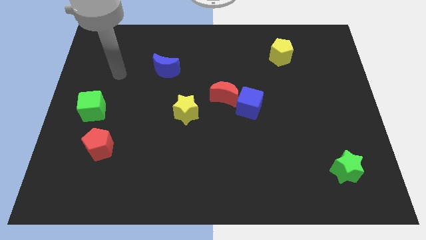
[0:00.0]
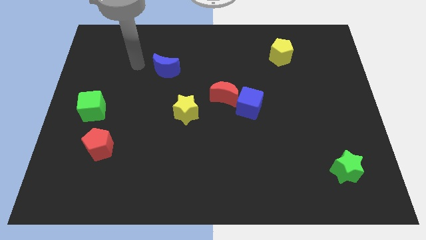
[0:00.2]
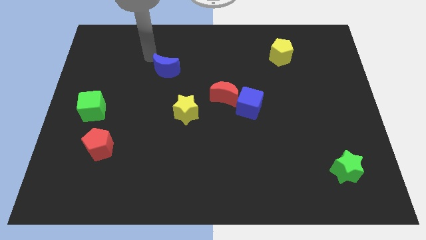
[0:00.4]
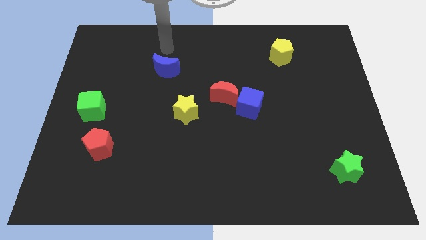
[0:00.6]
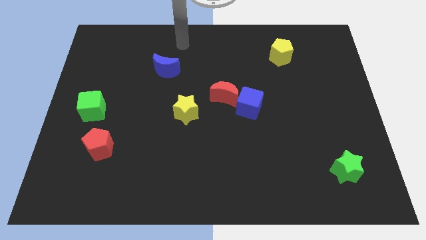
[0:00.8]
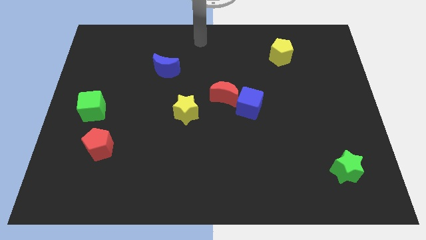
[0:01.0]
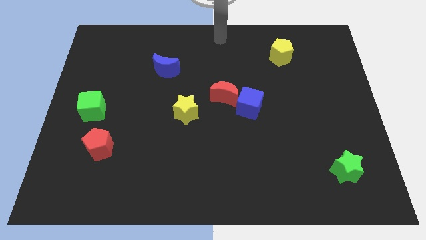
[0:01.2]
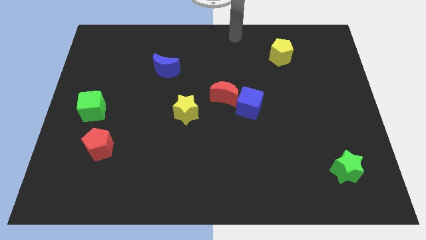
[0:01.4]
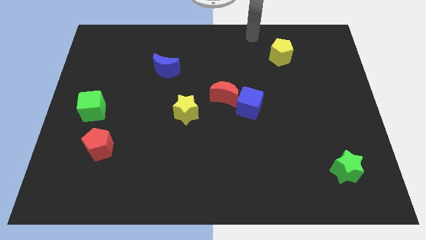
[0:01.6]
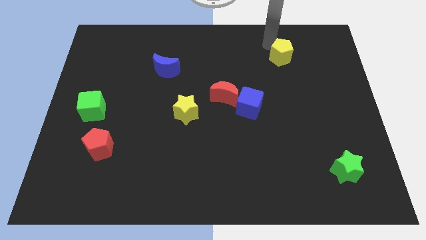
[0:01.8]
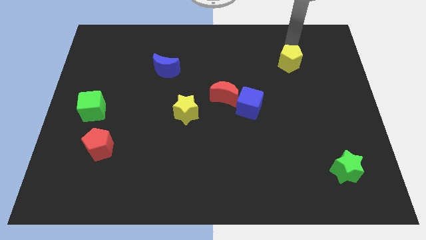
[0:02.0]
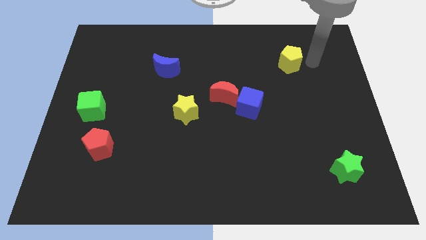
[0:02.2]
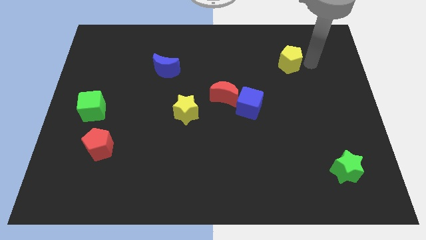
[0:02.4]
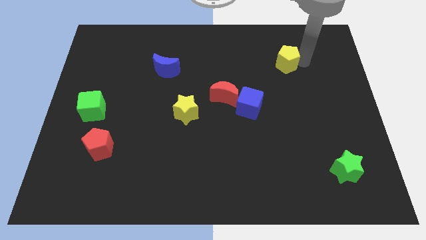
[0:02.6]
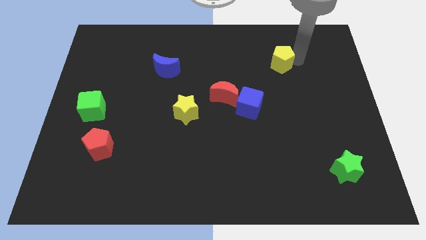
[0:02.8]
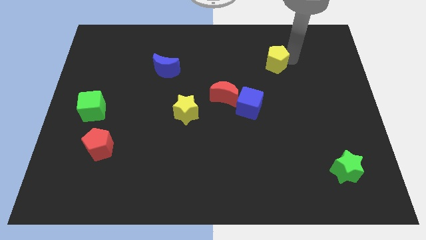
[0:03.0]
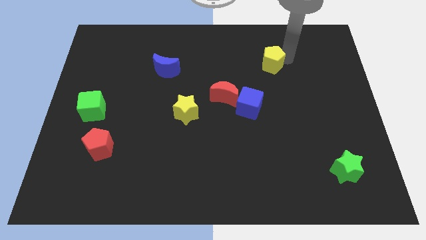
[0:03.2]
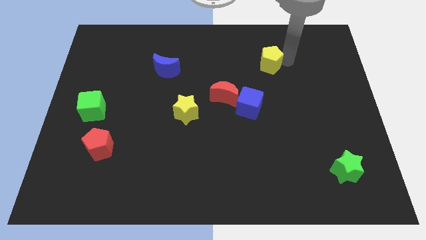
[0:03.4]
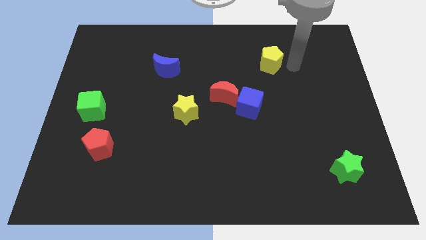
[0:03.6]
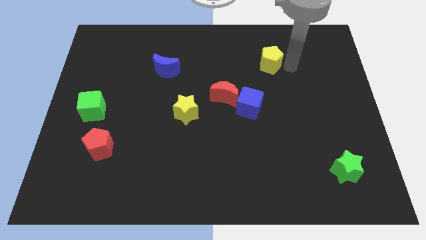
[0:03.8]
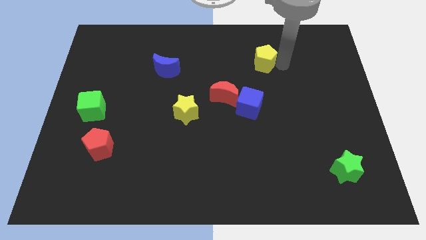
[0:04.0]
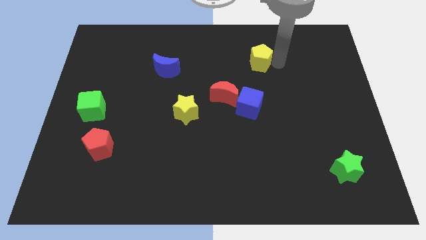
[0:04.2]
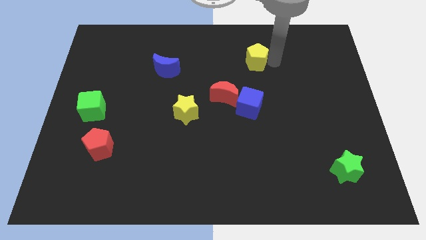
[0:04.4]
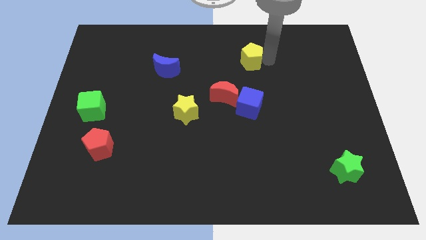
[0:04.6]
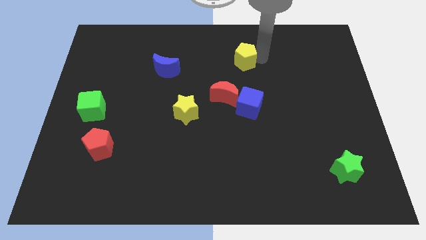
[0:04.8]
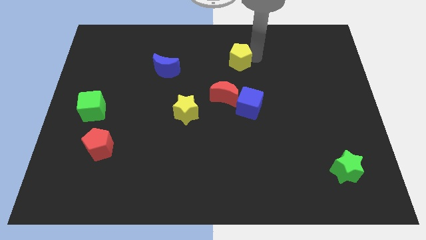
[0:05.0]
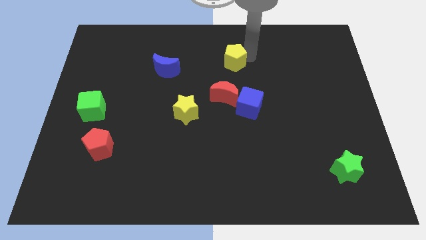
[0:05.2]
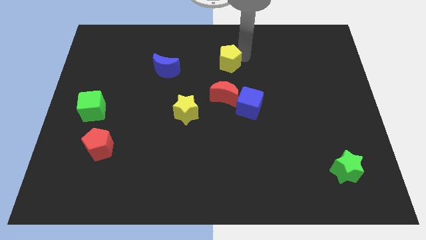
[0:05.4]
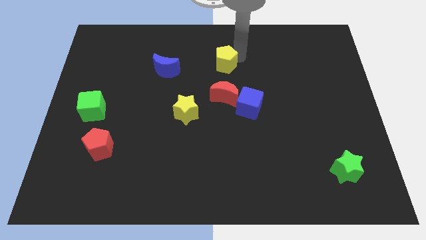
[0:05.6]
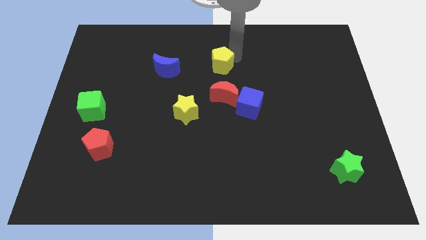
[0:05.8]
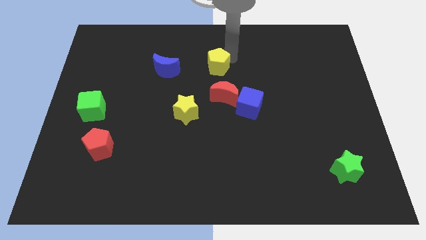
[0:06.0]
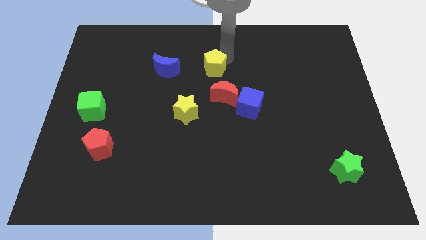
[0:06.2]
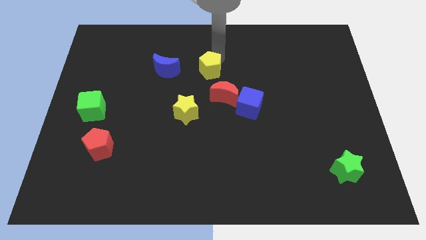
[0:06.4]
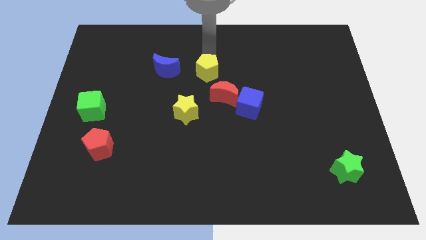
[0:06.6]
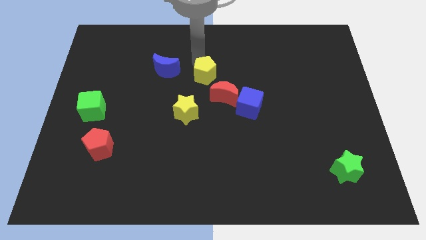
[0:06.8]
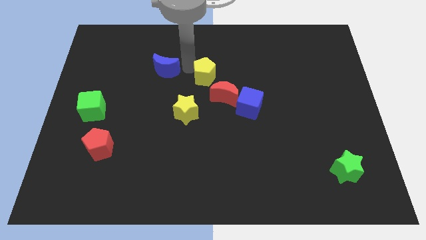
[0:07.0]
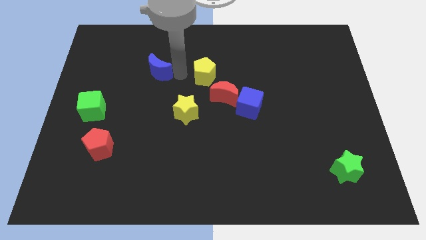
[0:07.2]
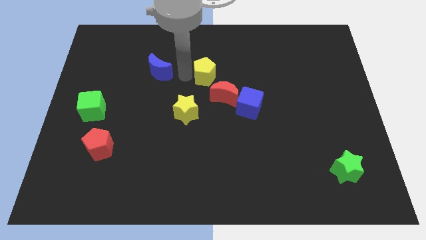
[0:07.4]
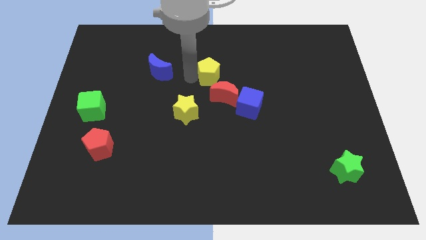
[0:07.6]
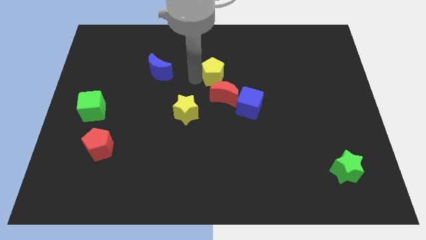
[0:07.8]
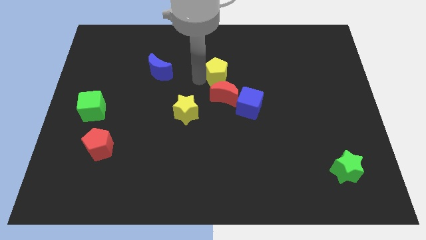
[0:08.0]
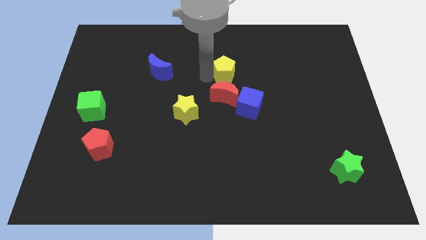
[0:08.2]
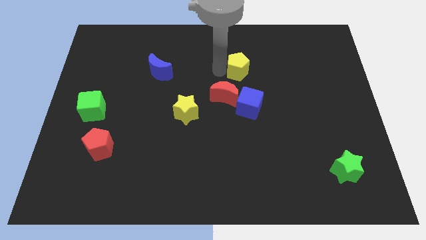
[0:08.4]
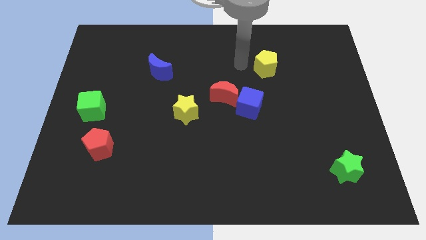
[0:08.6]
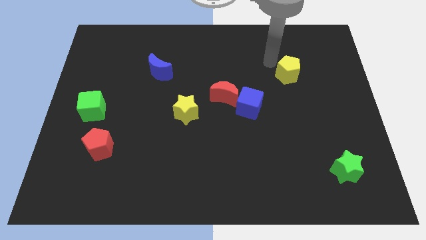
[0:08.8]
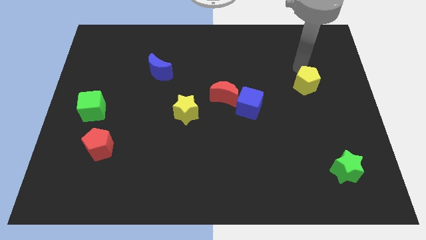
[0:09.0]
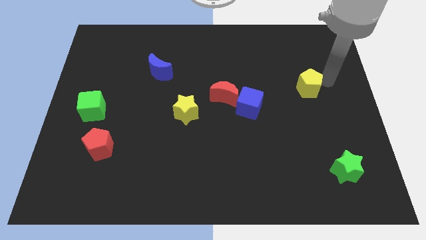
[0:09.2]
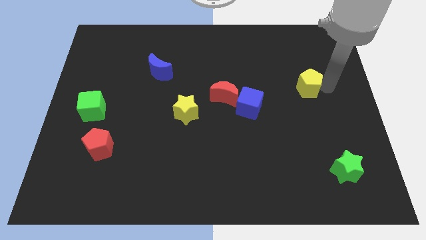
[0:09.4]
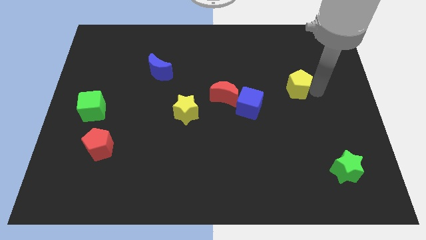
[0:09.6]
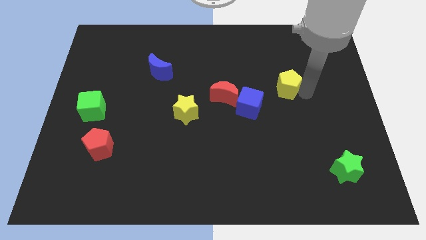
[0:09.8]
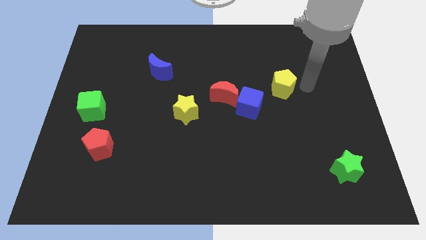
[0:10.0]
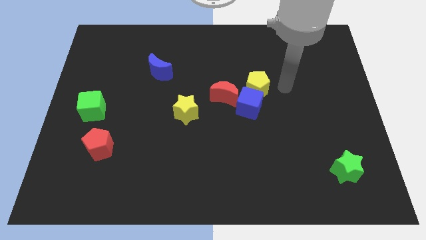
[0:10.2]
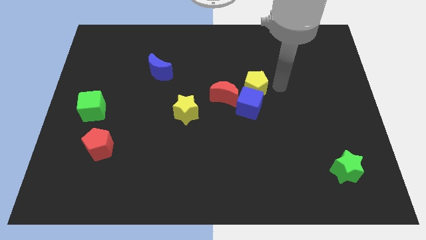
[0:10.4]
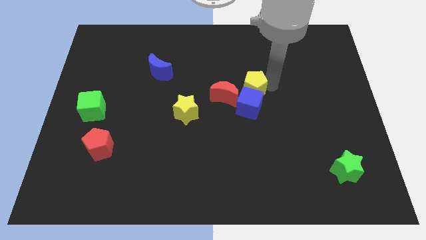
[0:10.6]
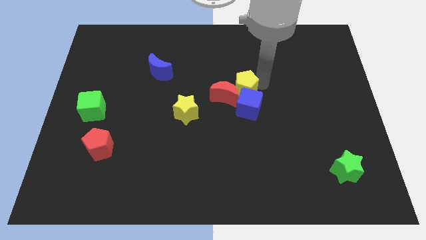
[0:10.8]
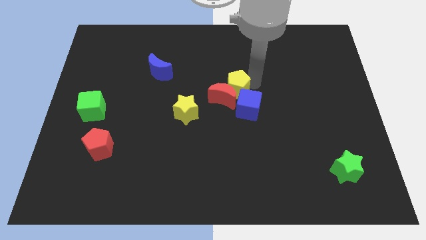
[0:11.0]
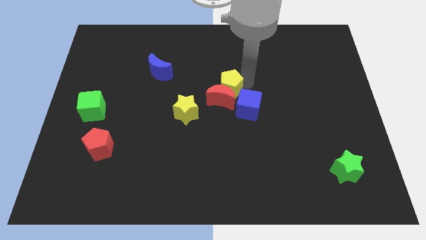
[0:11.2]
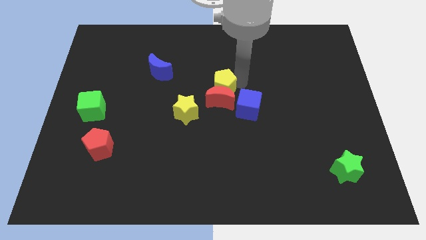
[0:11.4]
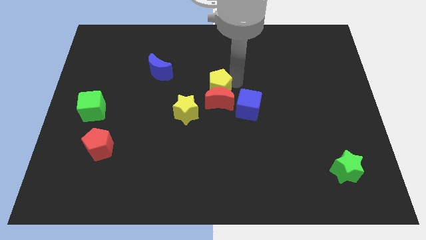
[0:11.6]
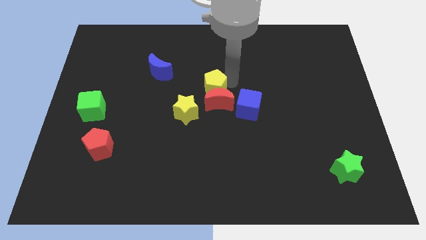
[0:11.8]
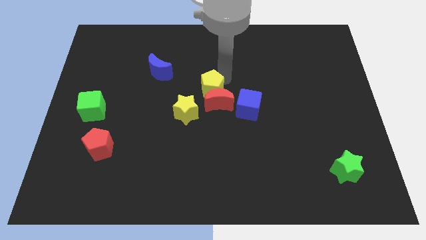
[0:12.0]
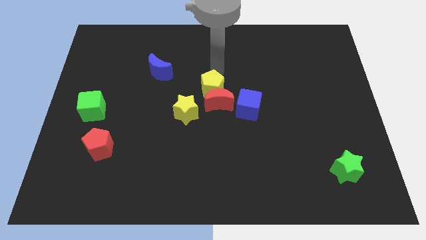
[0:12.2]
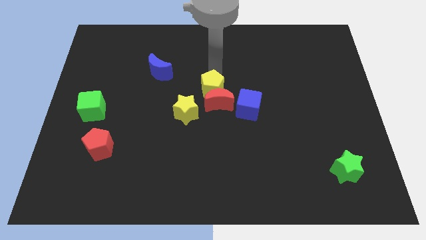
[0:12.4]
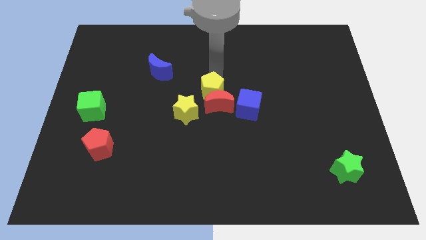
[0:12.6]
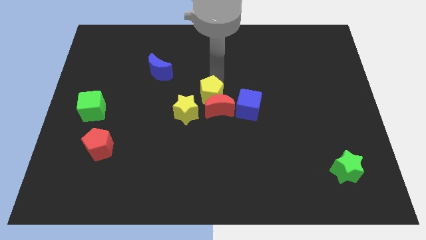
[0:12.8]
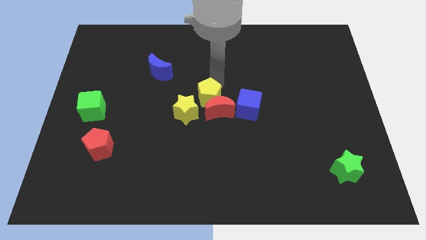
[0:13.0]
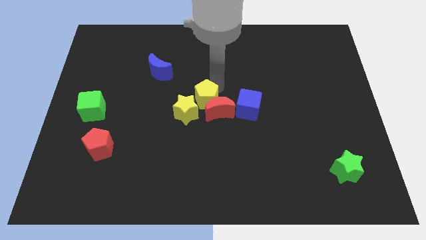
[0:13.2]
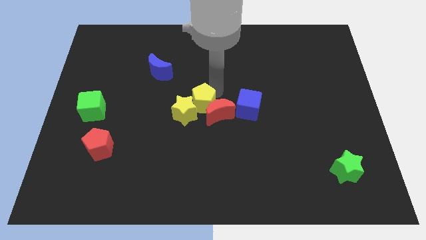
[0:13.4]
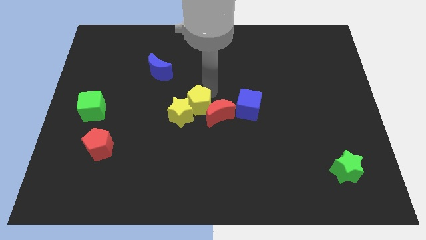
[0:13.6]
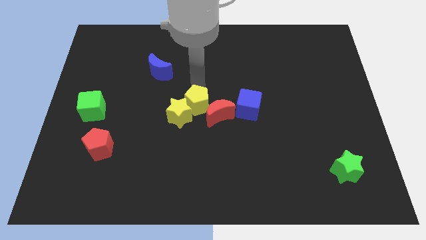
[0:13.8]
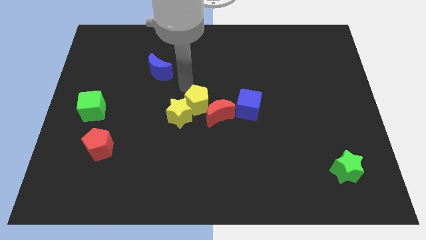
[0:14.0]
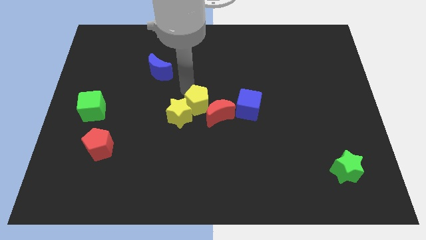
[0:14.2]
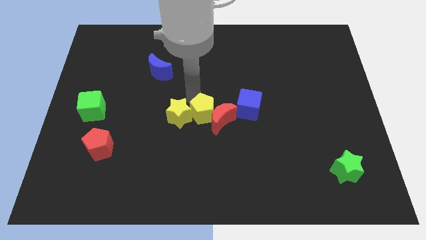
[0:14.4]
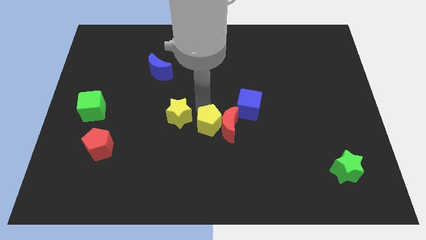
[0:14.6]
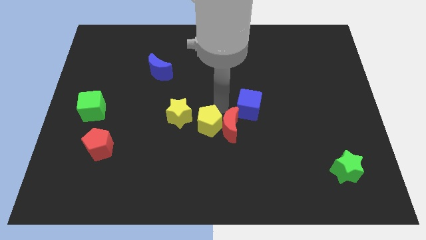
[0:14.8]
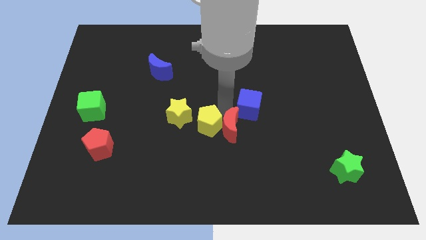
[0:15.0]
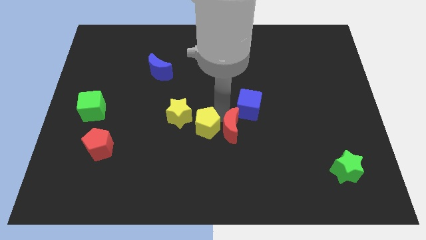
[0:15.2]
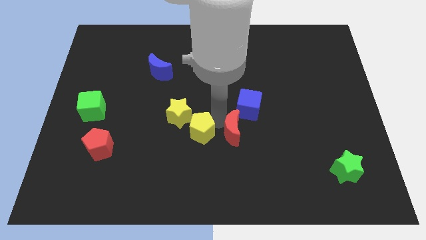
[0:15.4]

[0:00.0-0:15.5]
put the yellow pentagon to the bottom of the yellow star
